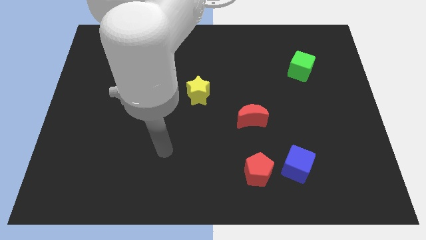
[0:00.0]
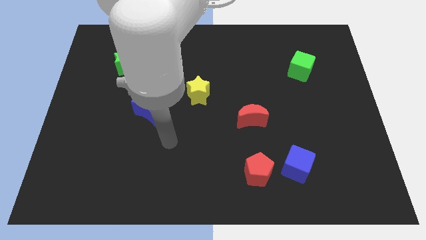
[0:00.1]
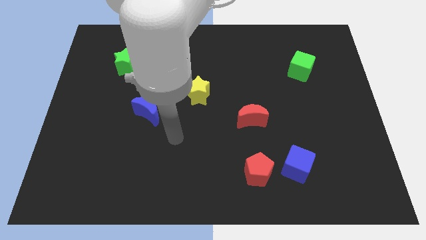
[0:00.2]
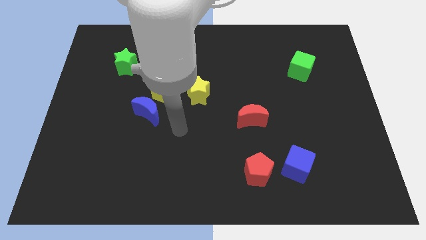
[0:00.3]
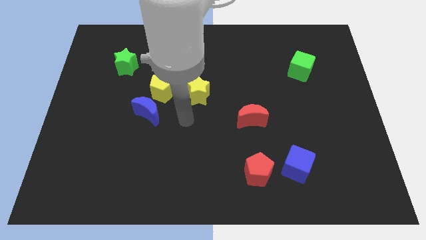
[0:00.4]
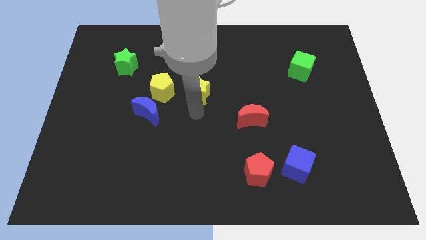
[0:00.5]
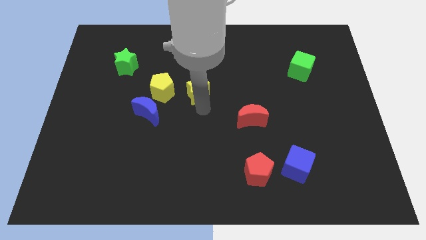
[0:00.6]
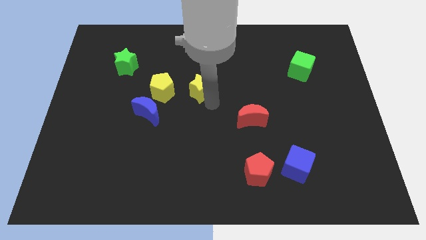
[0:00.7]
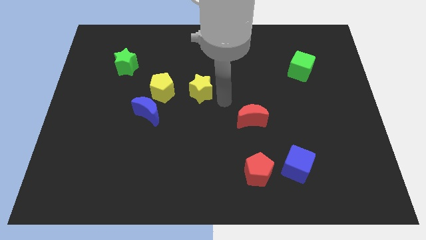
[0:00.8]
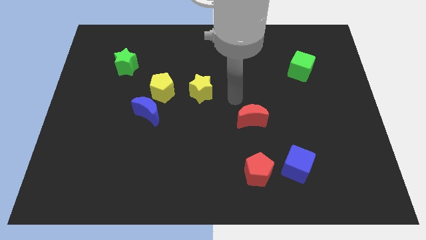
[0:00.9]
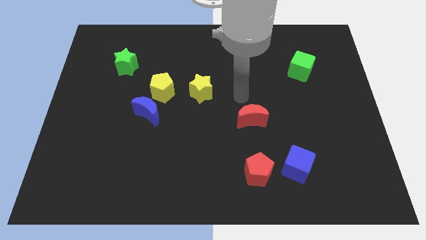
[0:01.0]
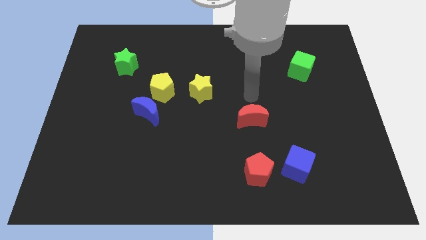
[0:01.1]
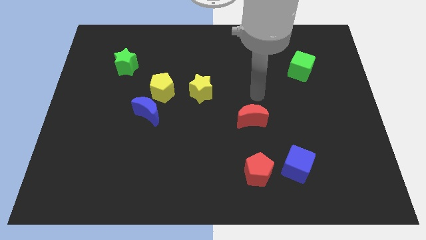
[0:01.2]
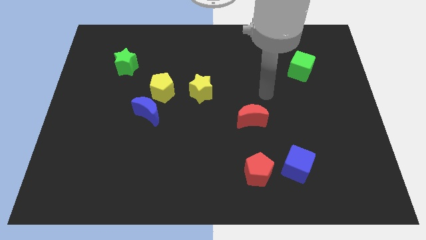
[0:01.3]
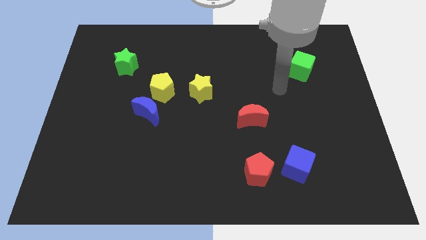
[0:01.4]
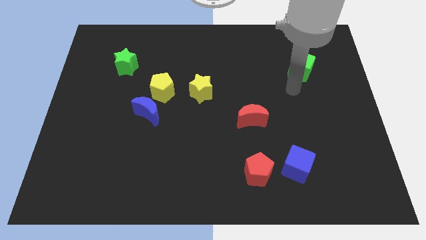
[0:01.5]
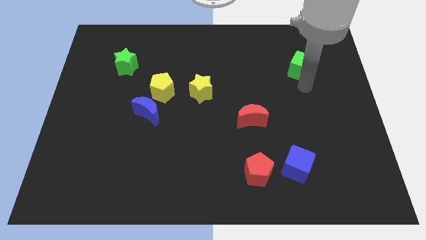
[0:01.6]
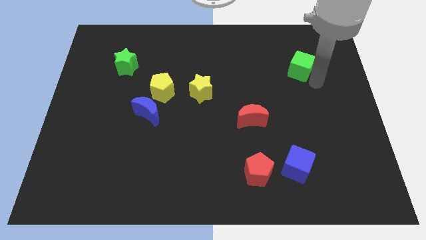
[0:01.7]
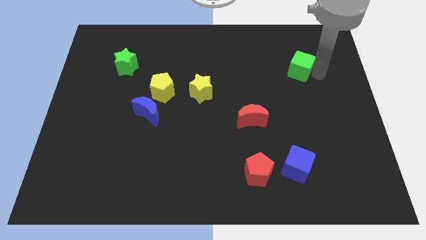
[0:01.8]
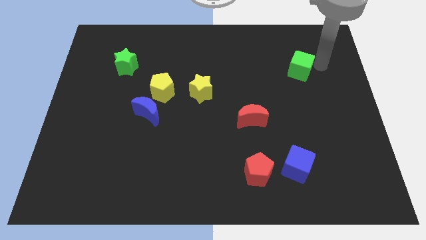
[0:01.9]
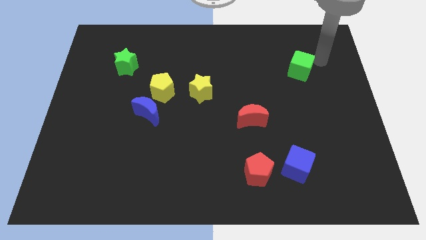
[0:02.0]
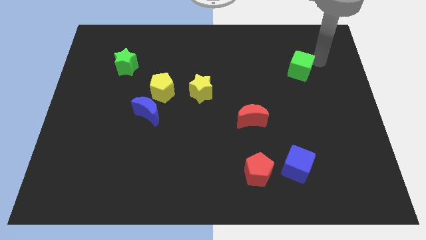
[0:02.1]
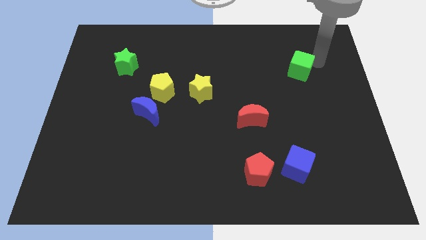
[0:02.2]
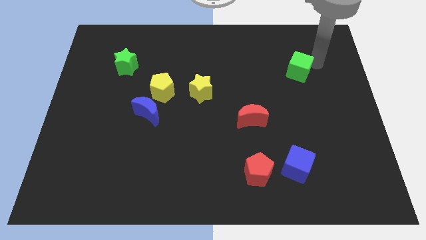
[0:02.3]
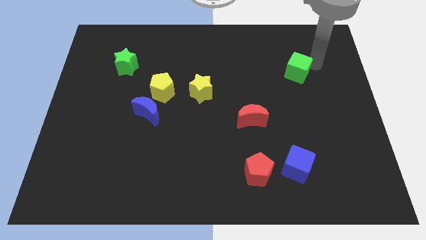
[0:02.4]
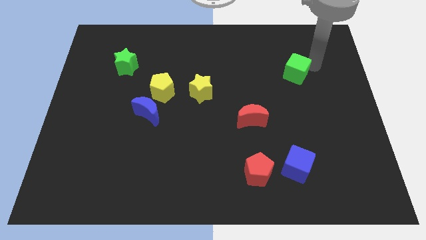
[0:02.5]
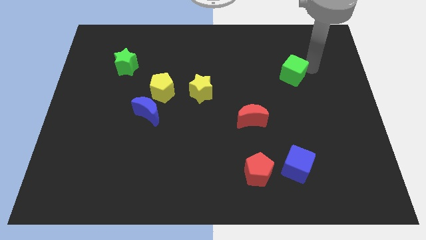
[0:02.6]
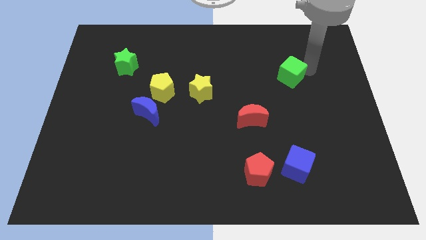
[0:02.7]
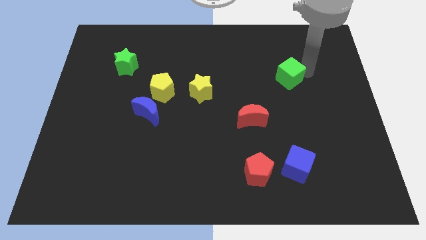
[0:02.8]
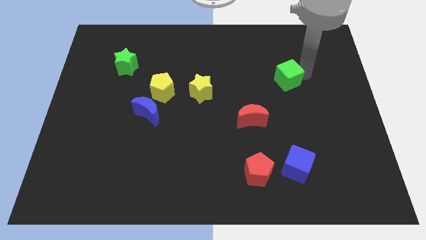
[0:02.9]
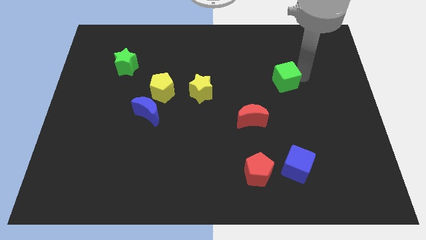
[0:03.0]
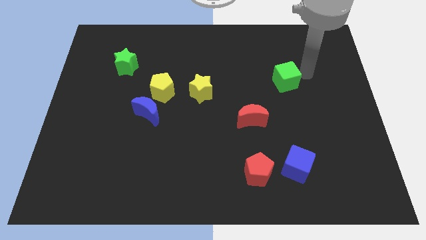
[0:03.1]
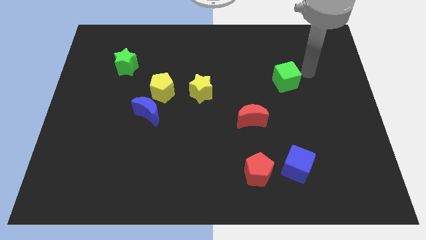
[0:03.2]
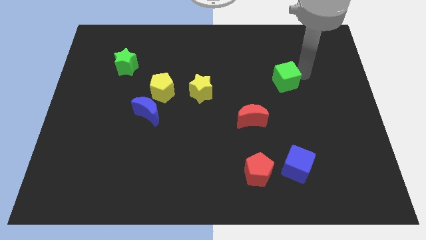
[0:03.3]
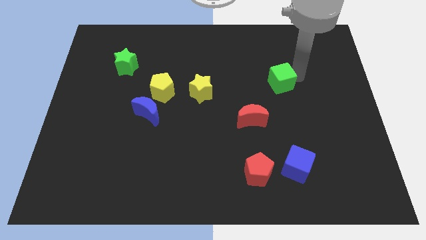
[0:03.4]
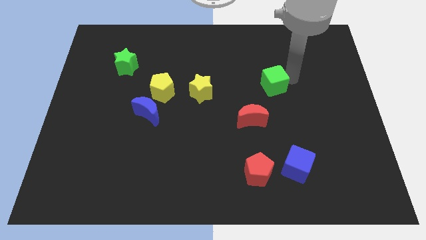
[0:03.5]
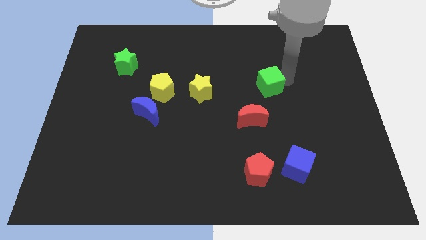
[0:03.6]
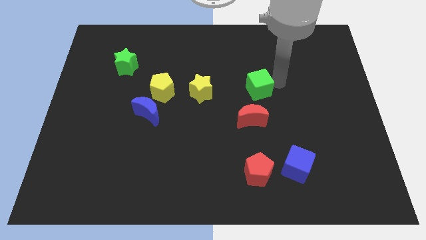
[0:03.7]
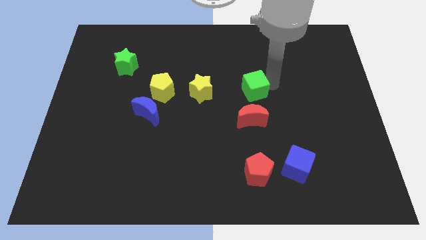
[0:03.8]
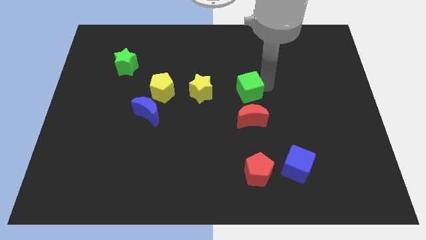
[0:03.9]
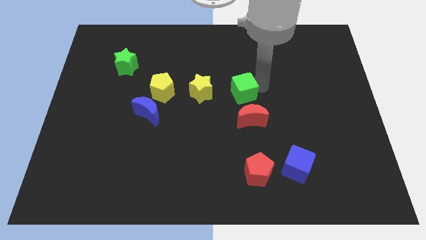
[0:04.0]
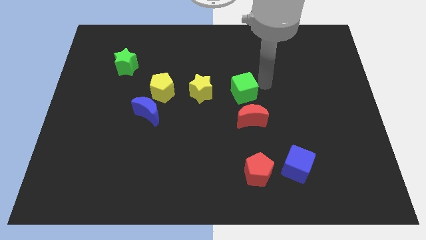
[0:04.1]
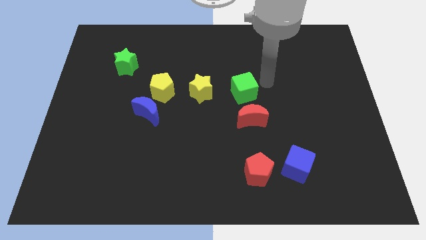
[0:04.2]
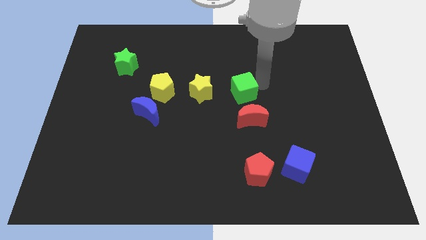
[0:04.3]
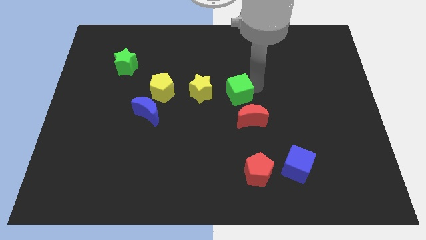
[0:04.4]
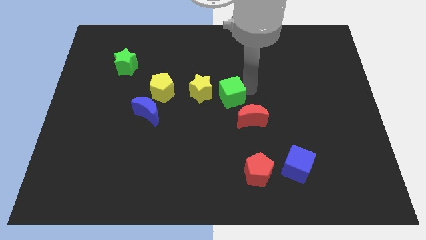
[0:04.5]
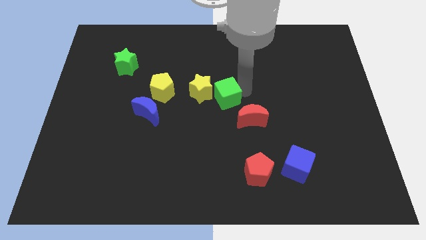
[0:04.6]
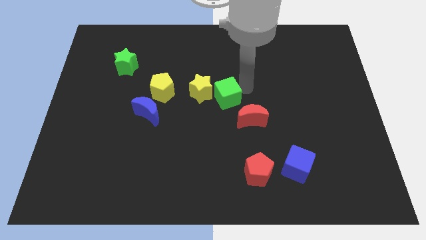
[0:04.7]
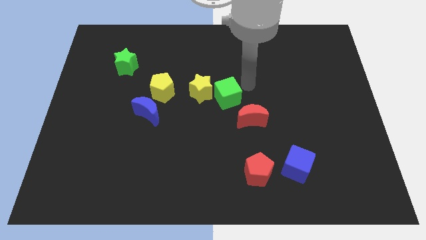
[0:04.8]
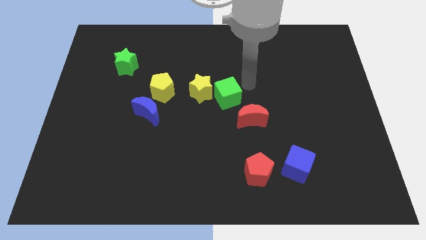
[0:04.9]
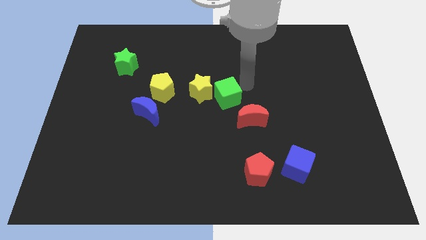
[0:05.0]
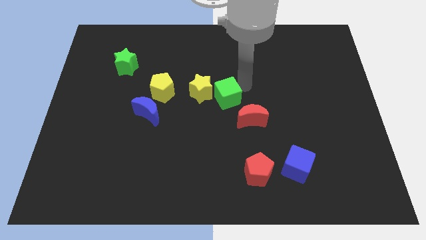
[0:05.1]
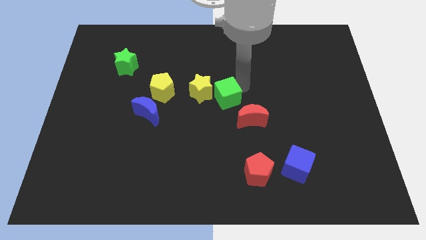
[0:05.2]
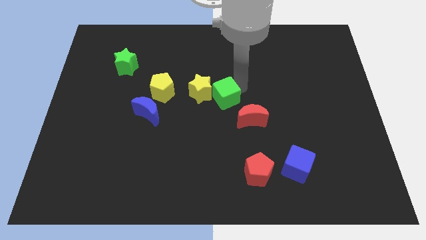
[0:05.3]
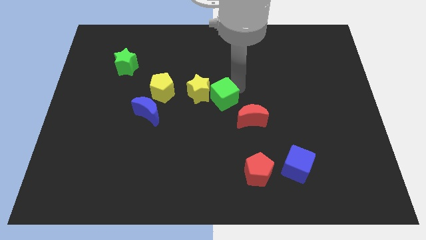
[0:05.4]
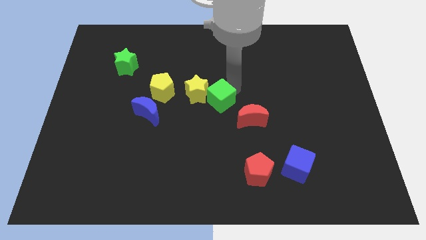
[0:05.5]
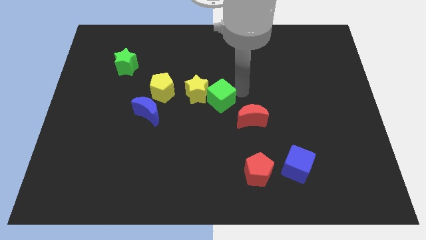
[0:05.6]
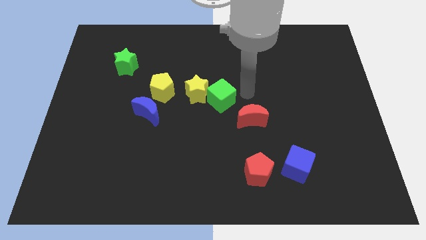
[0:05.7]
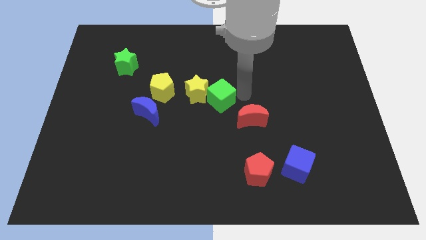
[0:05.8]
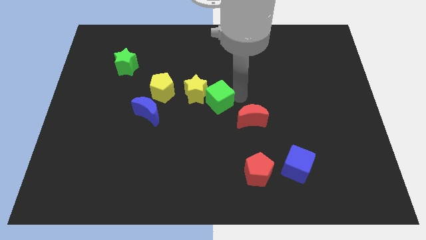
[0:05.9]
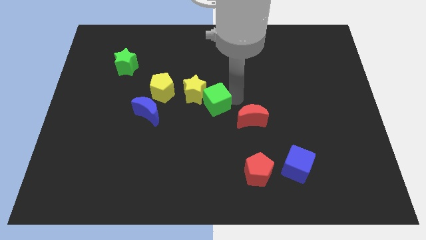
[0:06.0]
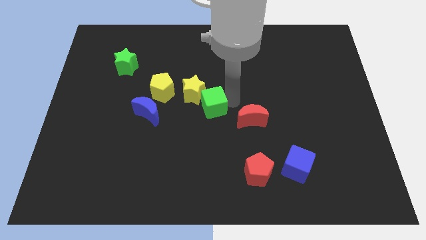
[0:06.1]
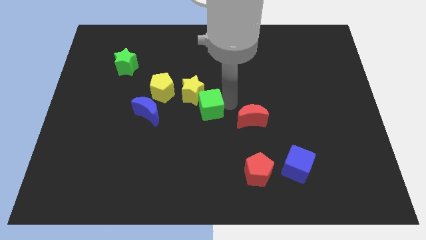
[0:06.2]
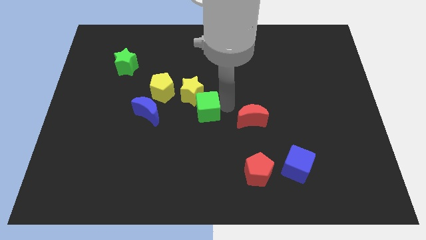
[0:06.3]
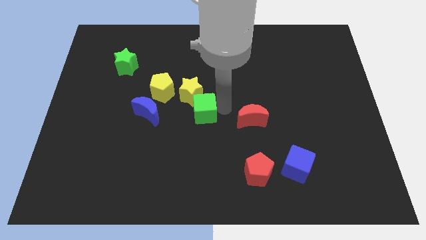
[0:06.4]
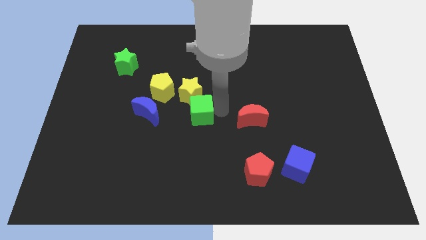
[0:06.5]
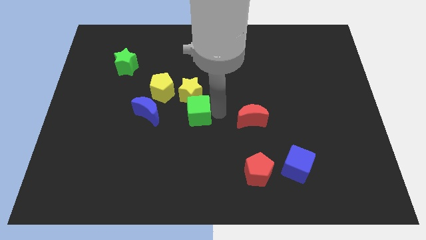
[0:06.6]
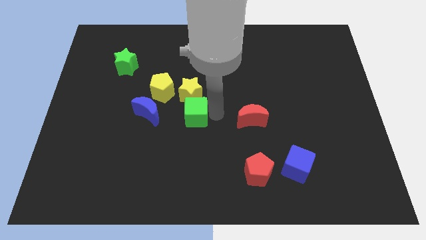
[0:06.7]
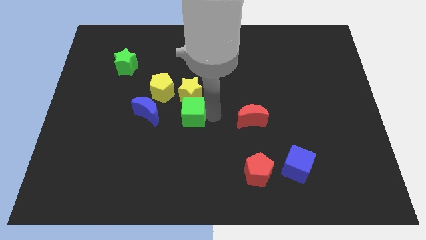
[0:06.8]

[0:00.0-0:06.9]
move the green cube to the bottom left of the yellow star
